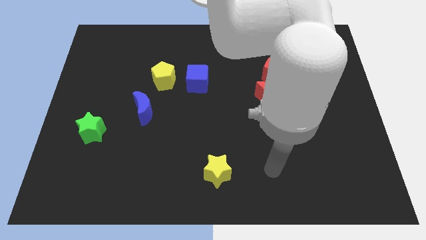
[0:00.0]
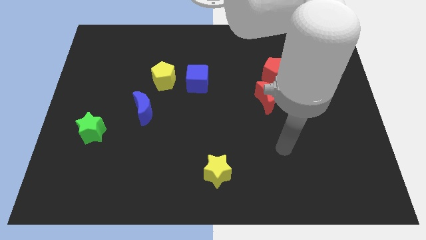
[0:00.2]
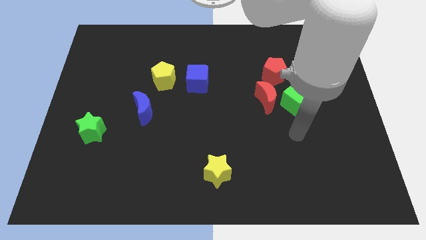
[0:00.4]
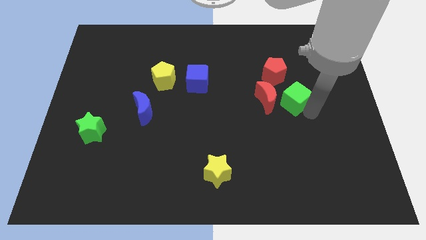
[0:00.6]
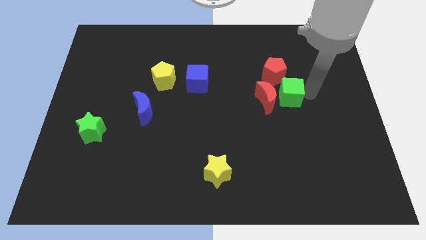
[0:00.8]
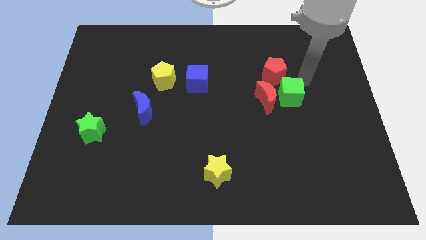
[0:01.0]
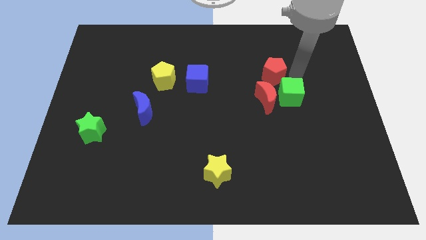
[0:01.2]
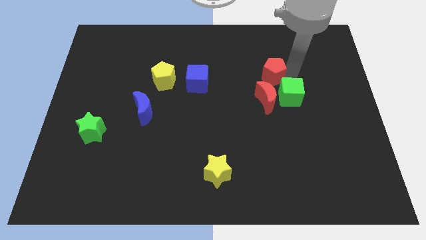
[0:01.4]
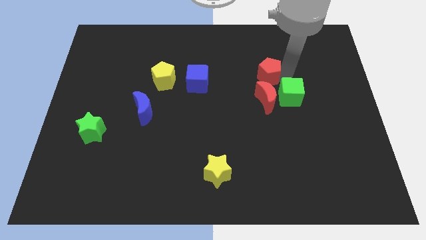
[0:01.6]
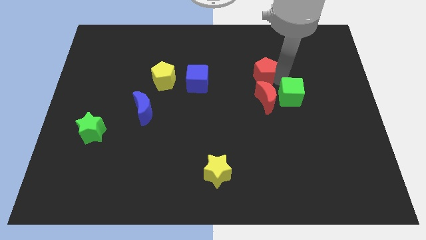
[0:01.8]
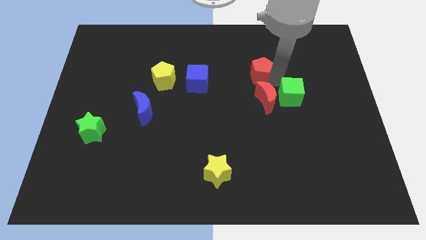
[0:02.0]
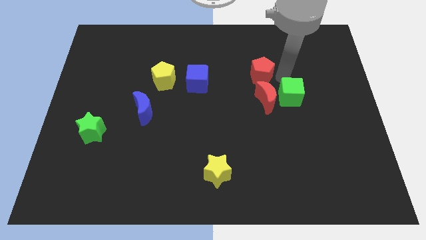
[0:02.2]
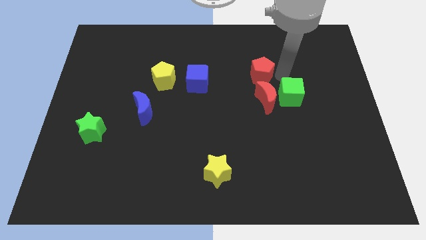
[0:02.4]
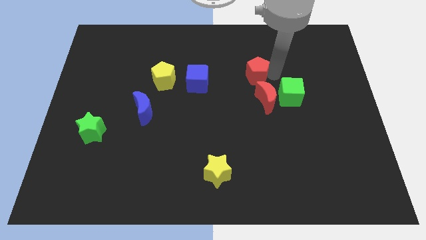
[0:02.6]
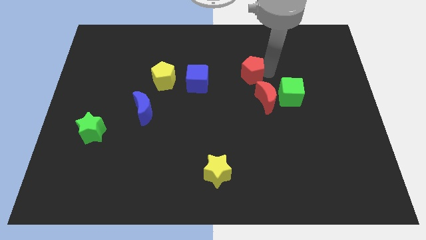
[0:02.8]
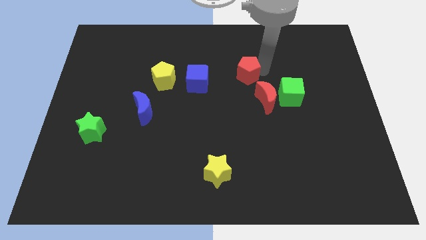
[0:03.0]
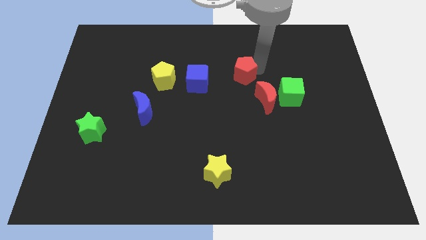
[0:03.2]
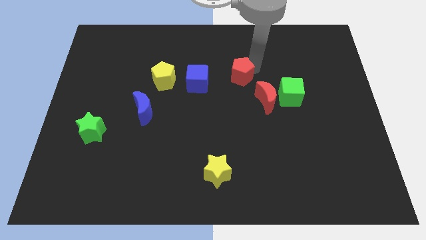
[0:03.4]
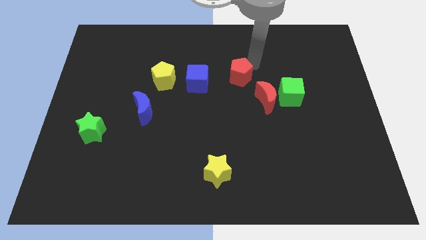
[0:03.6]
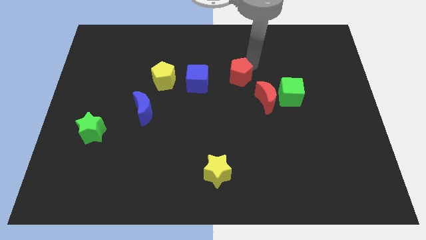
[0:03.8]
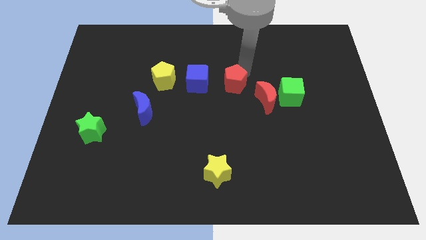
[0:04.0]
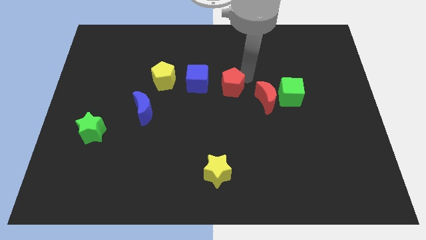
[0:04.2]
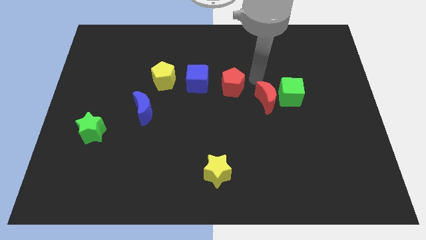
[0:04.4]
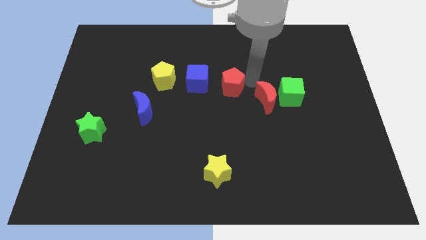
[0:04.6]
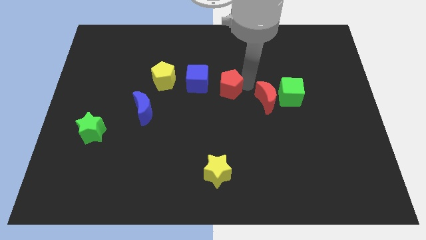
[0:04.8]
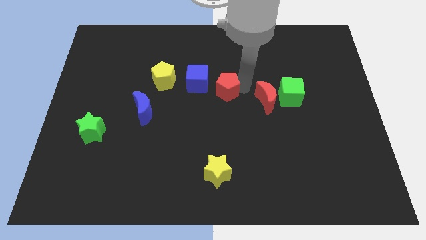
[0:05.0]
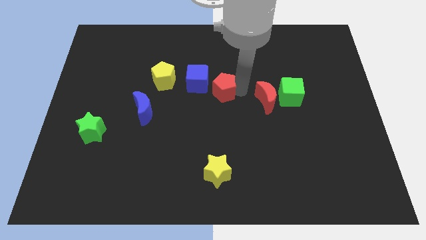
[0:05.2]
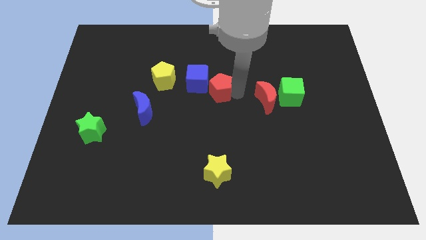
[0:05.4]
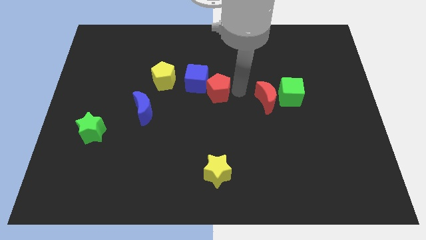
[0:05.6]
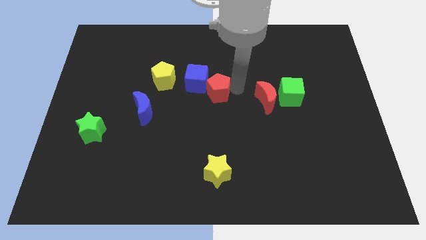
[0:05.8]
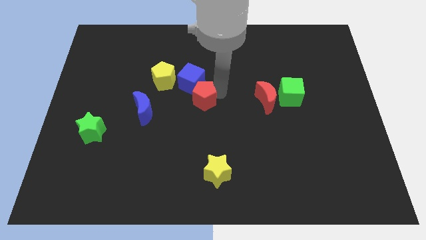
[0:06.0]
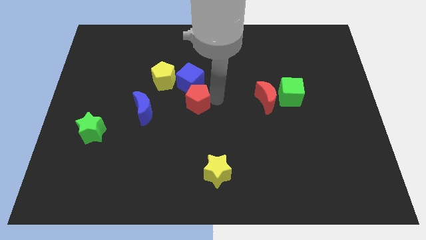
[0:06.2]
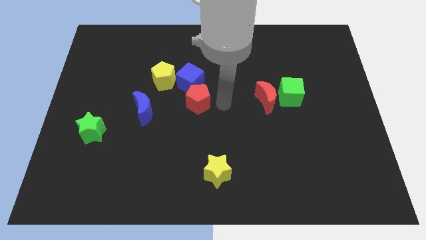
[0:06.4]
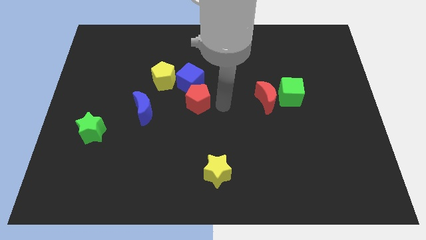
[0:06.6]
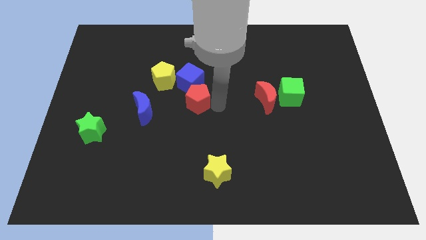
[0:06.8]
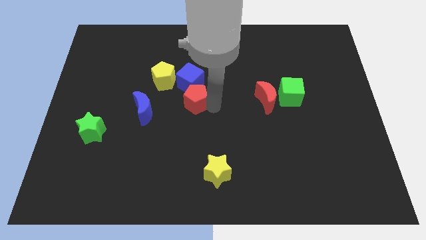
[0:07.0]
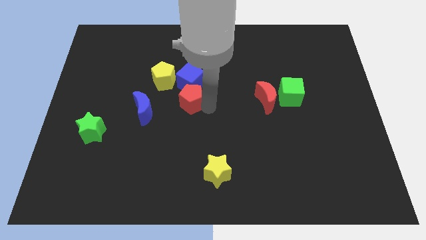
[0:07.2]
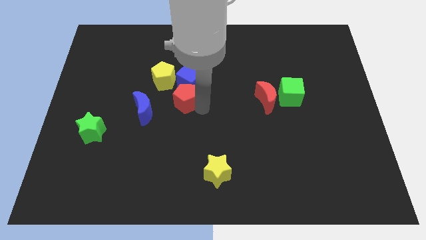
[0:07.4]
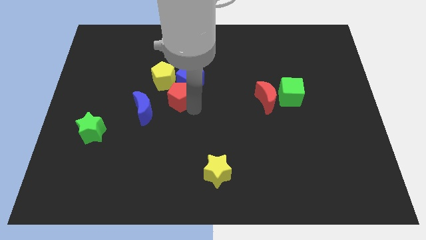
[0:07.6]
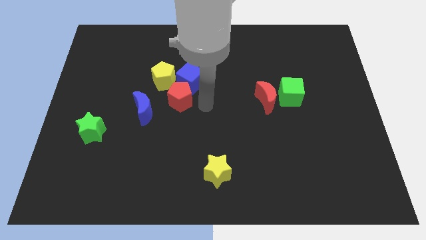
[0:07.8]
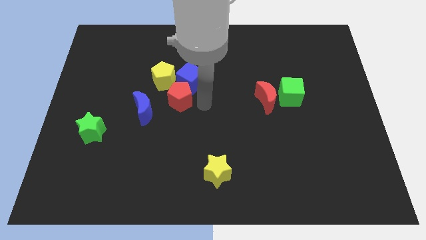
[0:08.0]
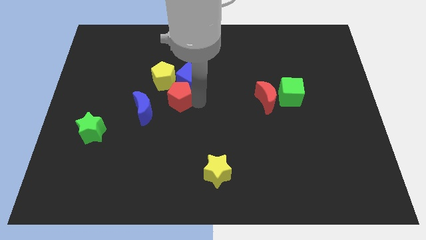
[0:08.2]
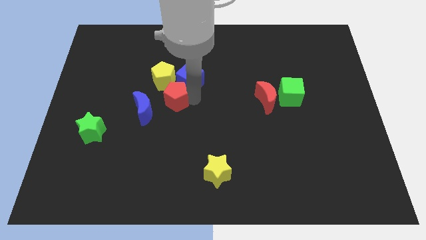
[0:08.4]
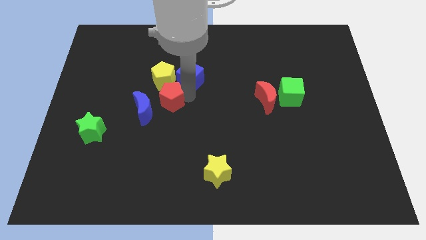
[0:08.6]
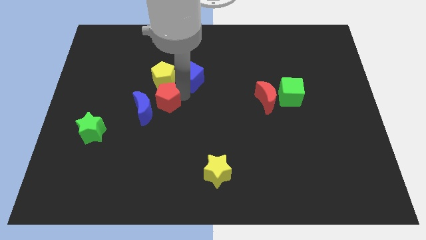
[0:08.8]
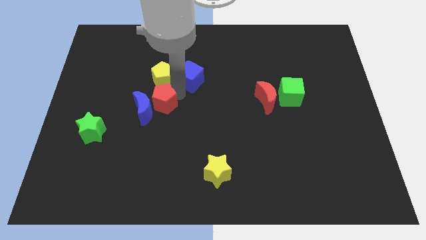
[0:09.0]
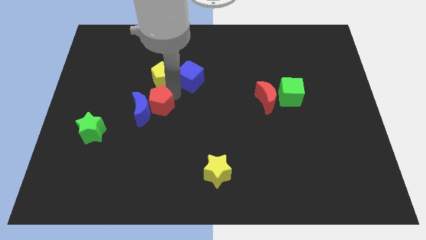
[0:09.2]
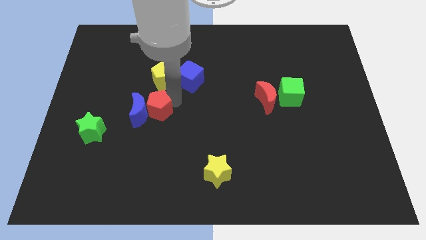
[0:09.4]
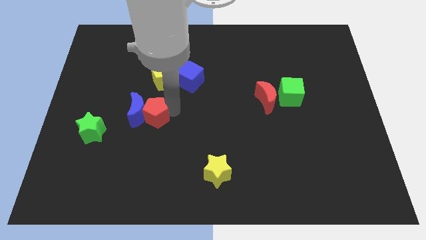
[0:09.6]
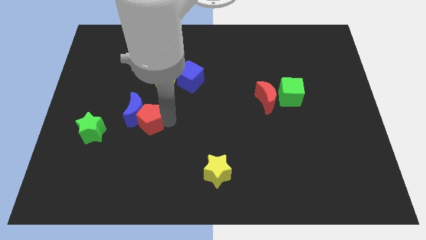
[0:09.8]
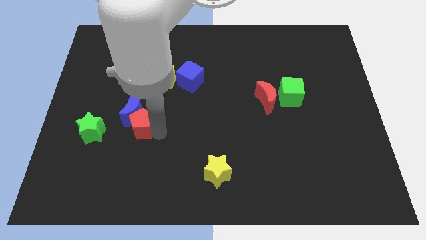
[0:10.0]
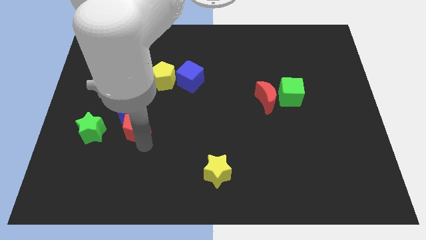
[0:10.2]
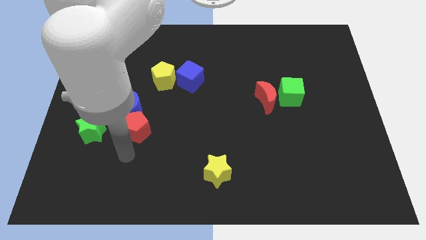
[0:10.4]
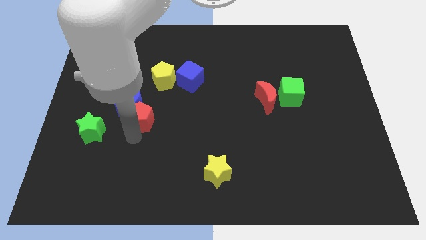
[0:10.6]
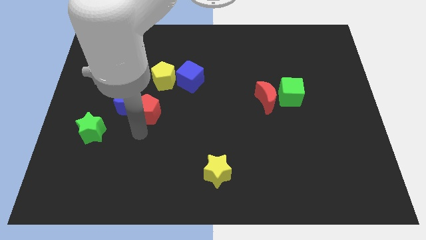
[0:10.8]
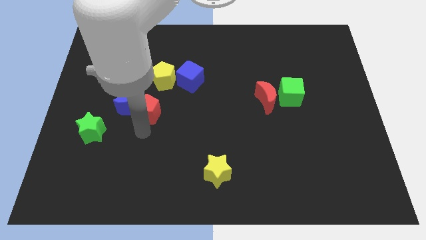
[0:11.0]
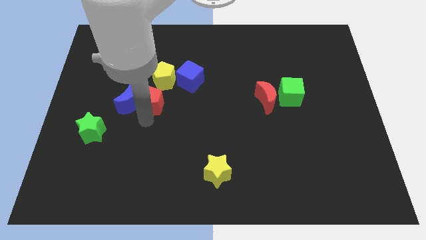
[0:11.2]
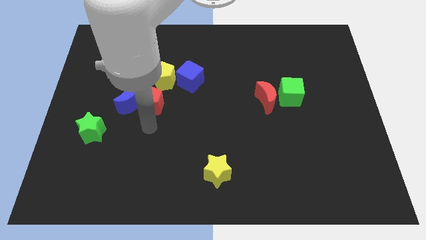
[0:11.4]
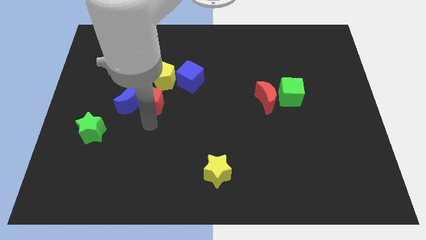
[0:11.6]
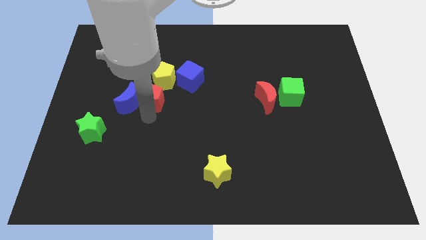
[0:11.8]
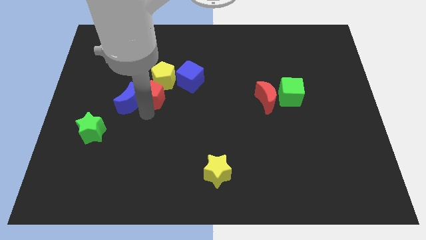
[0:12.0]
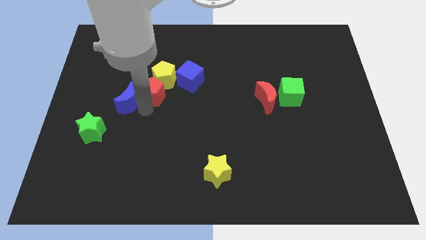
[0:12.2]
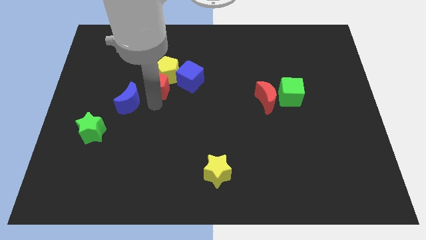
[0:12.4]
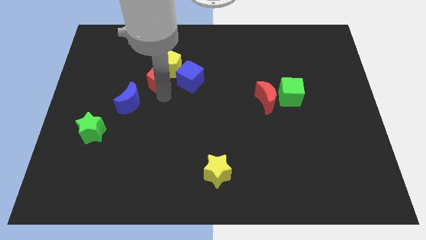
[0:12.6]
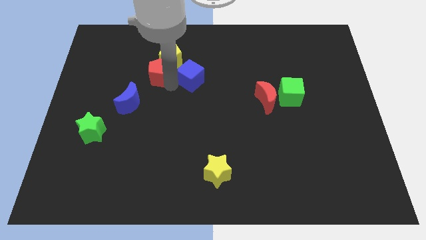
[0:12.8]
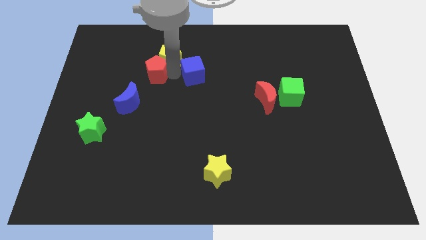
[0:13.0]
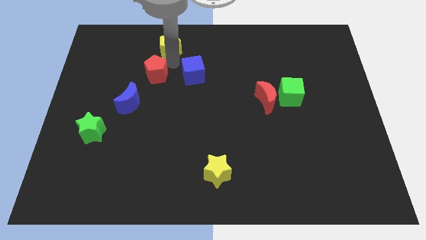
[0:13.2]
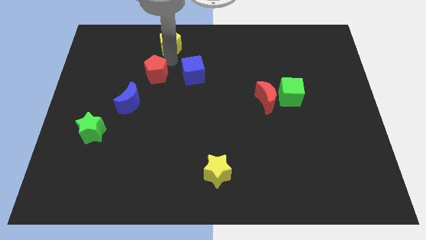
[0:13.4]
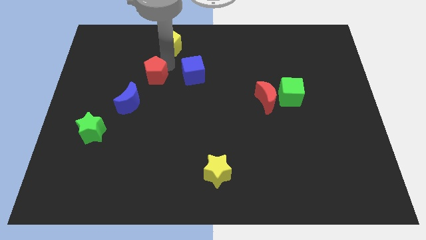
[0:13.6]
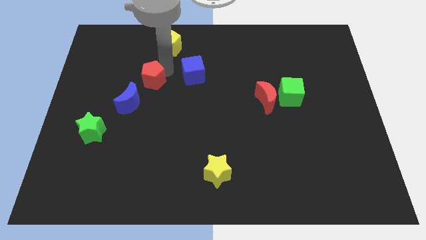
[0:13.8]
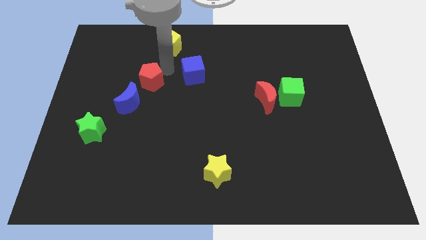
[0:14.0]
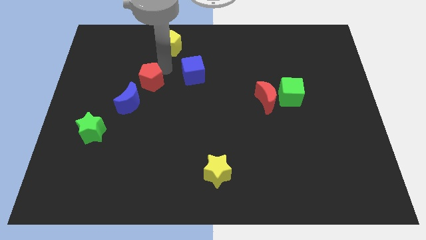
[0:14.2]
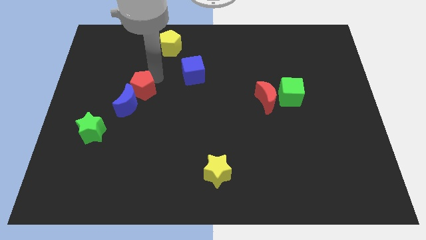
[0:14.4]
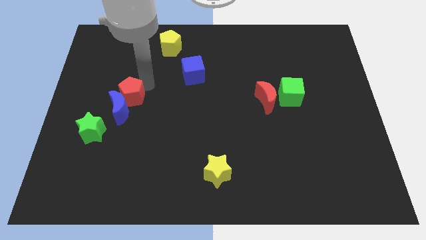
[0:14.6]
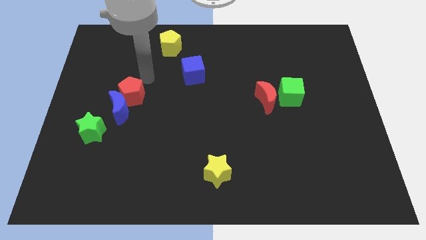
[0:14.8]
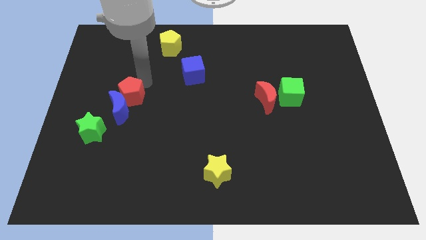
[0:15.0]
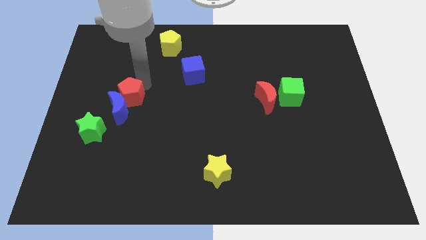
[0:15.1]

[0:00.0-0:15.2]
move the red pentagon to the top right of the green star

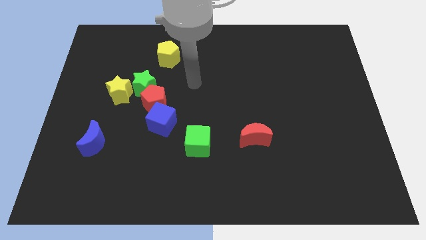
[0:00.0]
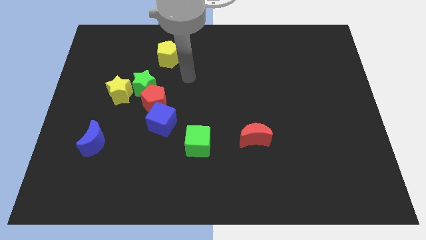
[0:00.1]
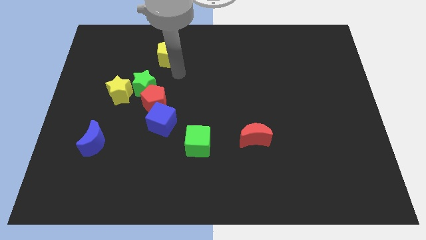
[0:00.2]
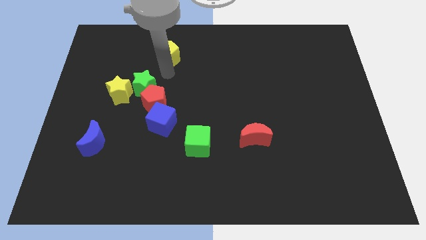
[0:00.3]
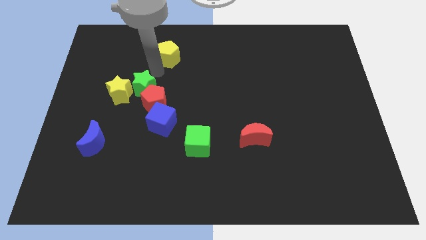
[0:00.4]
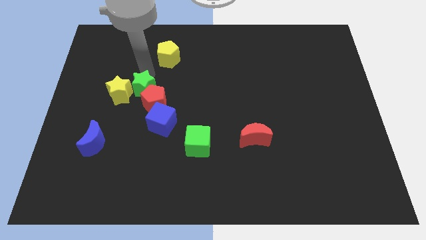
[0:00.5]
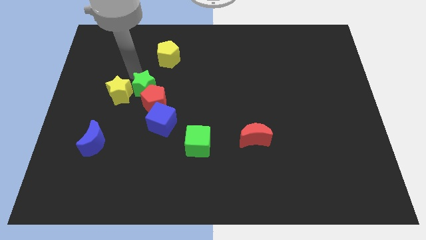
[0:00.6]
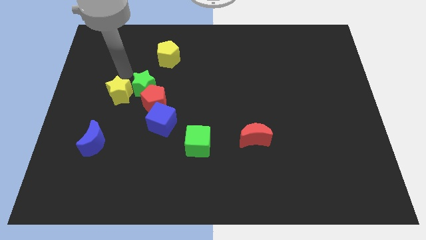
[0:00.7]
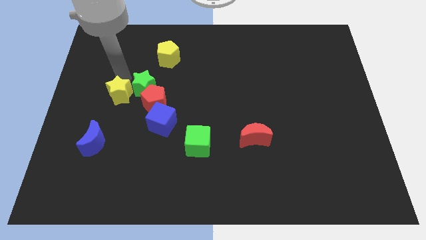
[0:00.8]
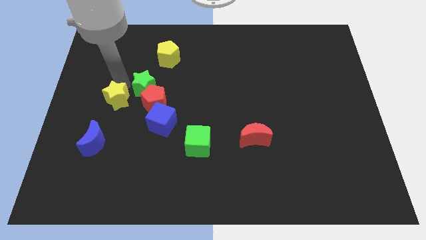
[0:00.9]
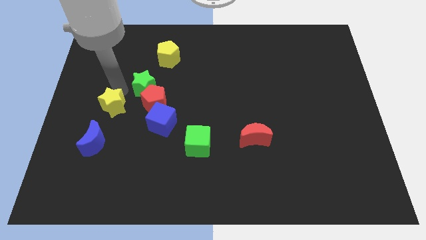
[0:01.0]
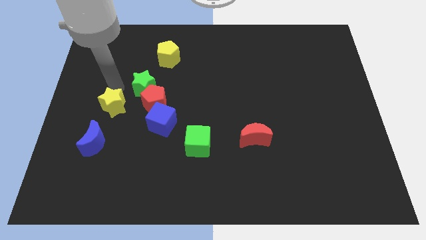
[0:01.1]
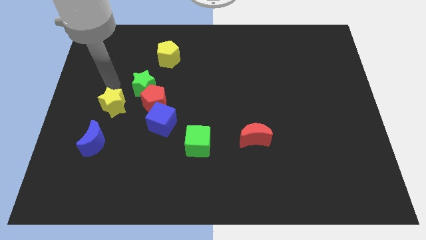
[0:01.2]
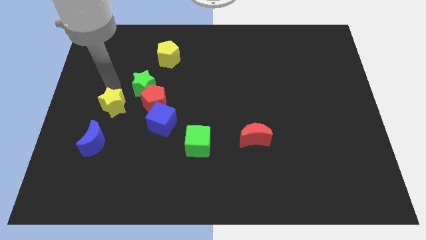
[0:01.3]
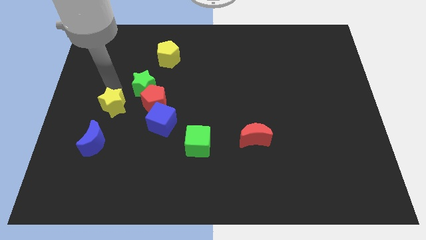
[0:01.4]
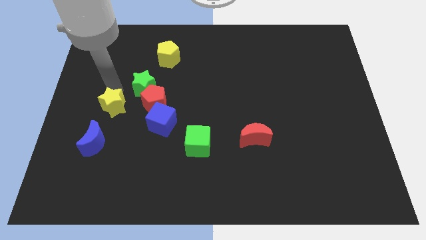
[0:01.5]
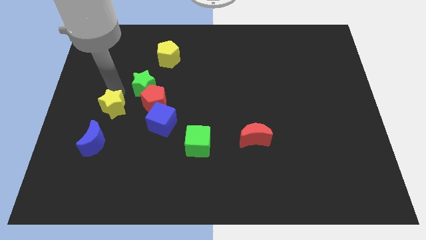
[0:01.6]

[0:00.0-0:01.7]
slide the yellow star to the left side of the blue cube
